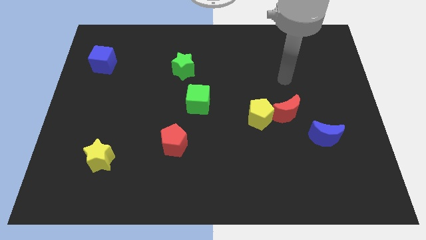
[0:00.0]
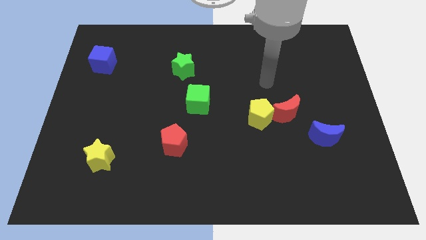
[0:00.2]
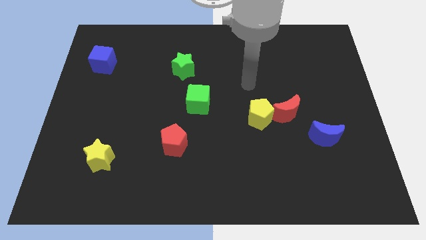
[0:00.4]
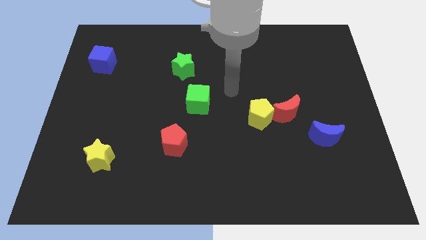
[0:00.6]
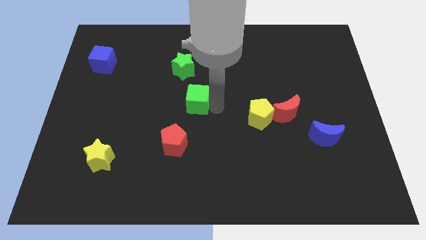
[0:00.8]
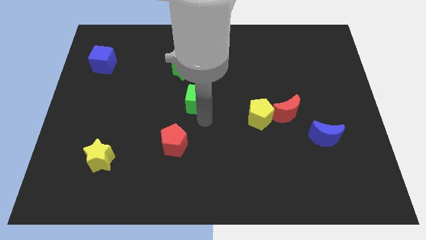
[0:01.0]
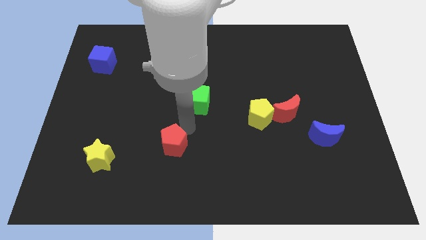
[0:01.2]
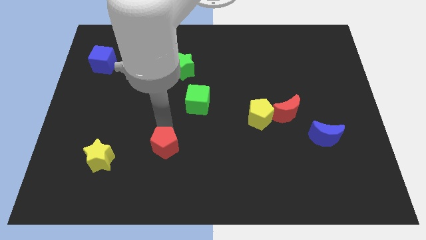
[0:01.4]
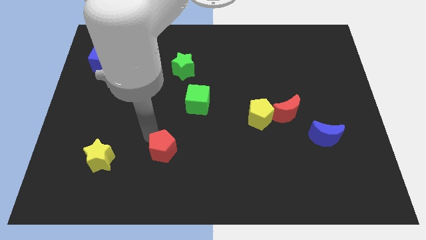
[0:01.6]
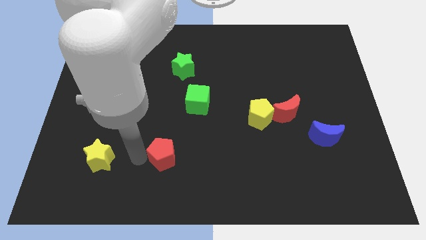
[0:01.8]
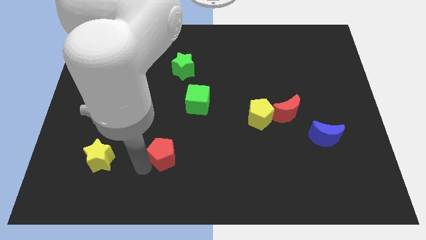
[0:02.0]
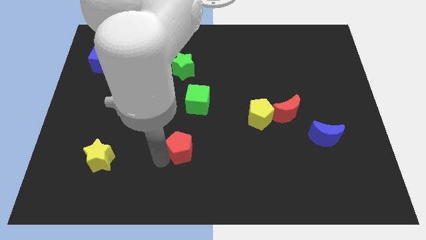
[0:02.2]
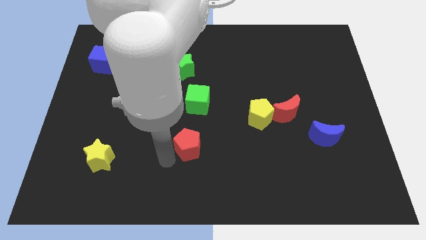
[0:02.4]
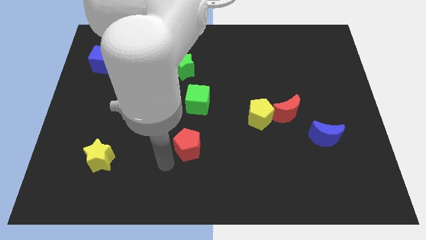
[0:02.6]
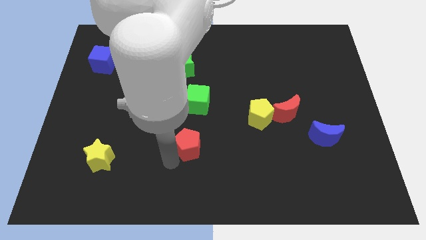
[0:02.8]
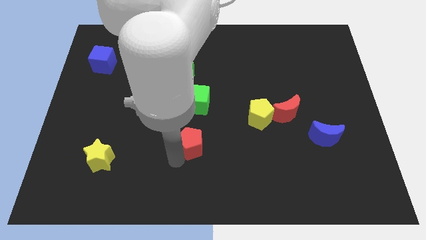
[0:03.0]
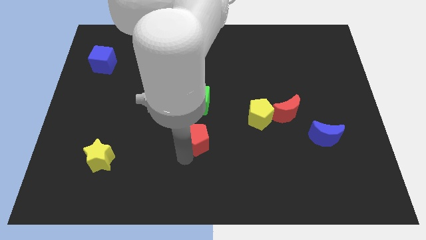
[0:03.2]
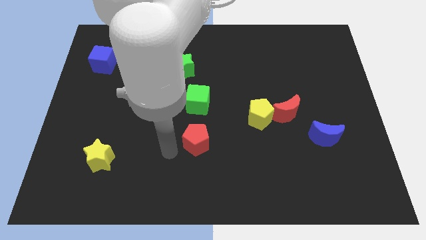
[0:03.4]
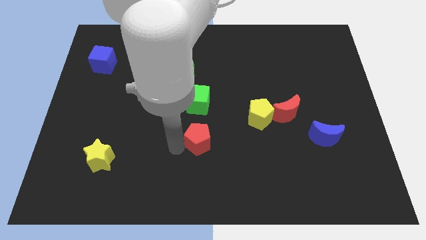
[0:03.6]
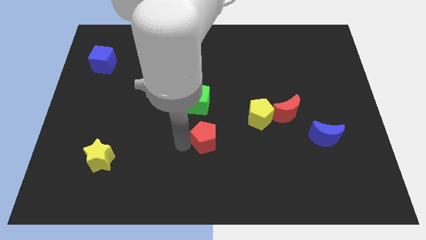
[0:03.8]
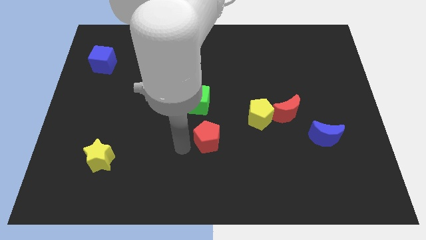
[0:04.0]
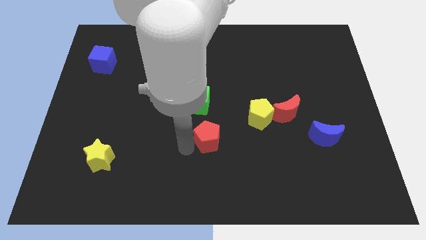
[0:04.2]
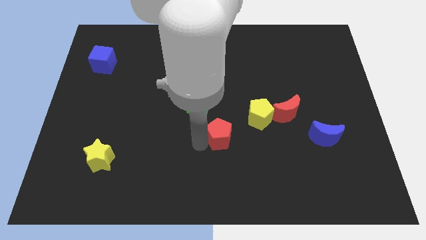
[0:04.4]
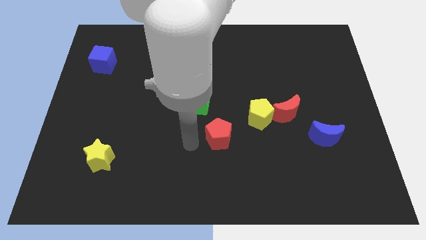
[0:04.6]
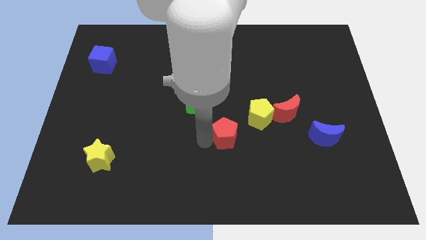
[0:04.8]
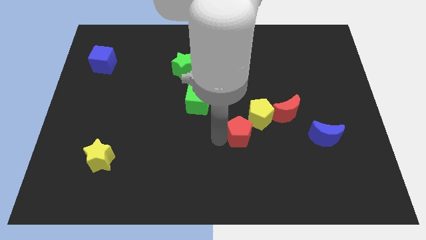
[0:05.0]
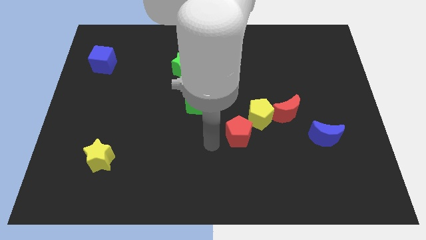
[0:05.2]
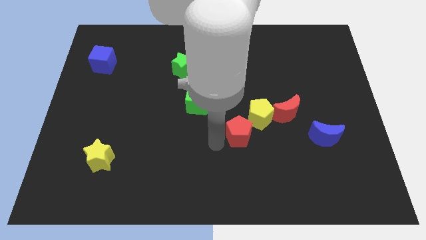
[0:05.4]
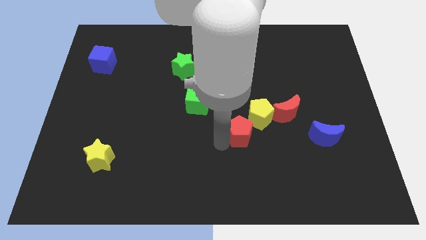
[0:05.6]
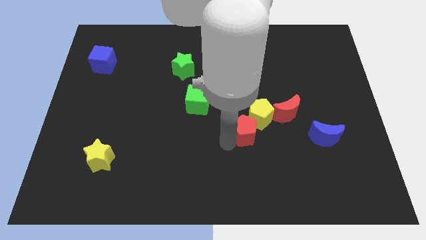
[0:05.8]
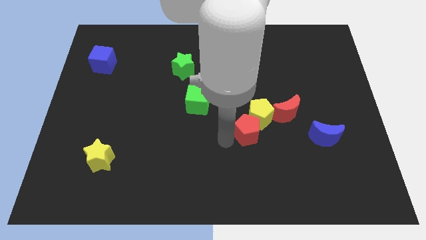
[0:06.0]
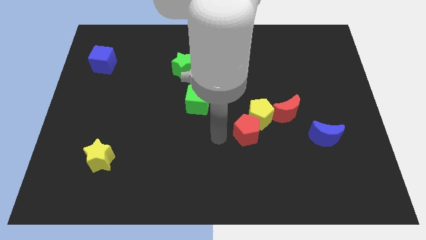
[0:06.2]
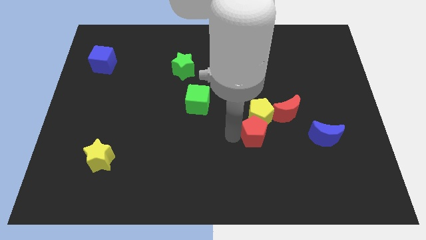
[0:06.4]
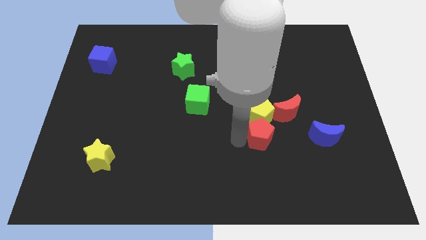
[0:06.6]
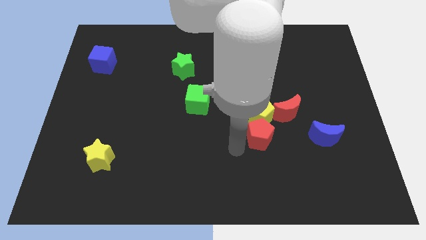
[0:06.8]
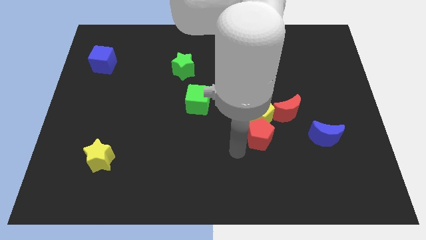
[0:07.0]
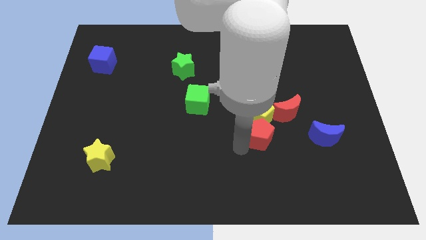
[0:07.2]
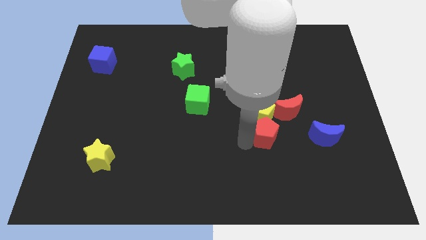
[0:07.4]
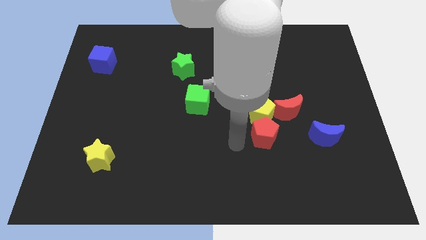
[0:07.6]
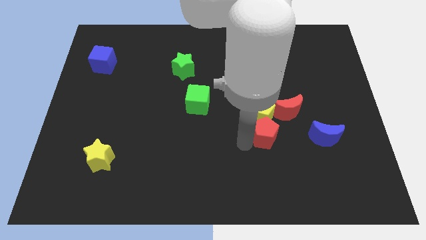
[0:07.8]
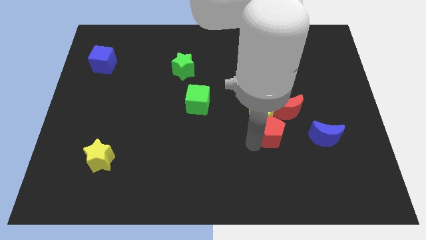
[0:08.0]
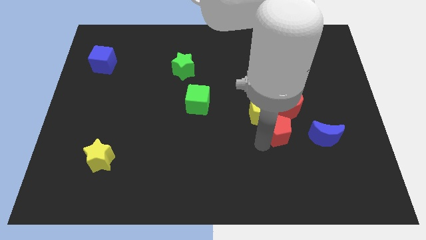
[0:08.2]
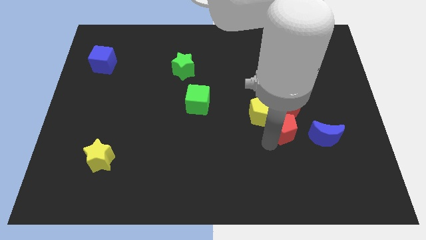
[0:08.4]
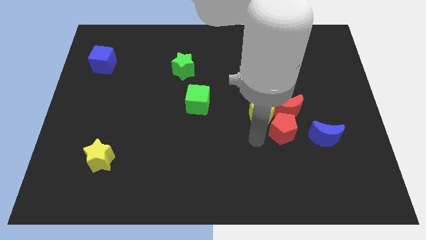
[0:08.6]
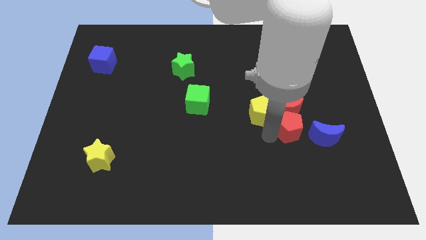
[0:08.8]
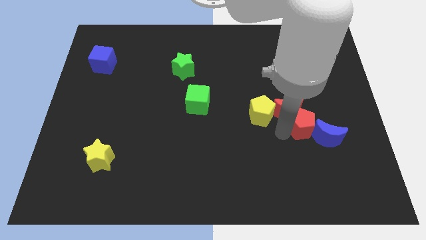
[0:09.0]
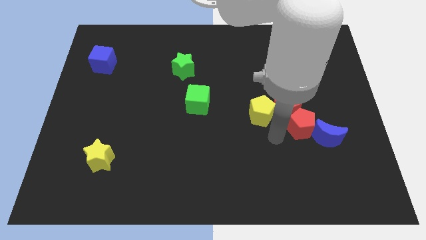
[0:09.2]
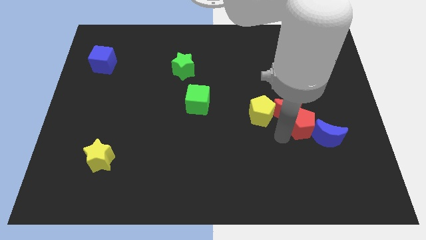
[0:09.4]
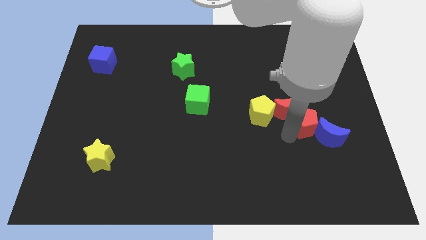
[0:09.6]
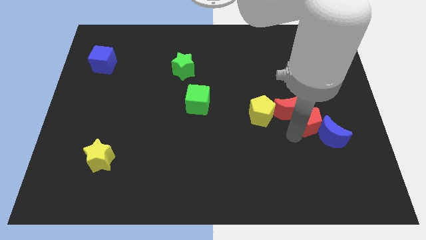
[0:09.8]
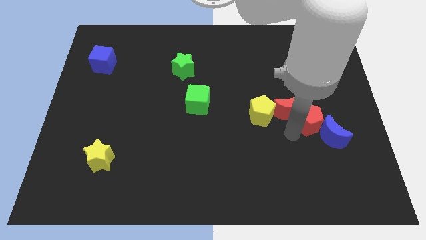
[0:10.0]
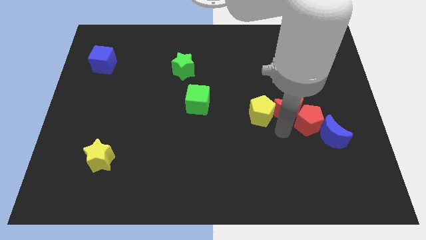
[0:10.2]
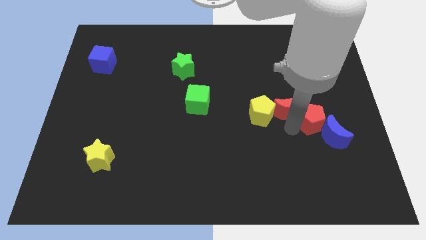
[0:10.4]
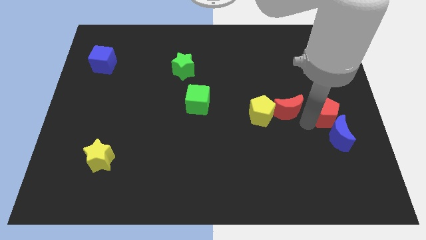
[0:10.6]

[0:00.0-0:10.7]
push the red pentagon to the center right

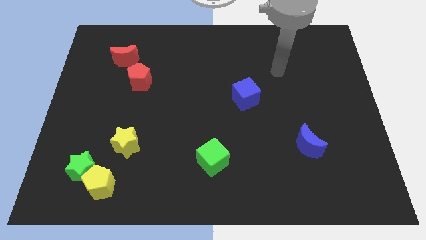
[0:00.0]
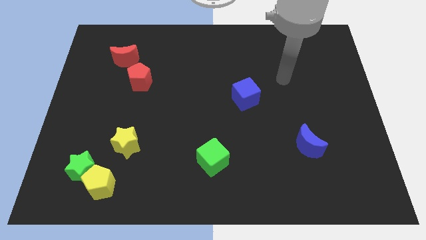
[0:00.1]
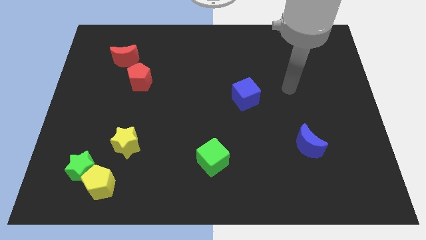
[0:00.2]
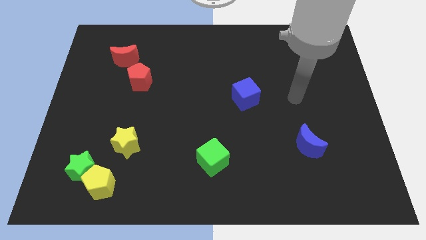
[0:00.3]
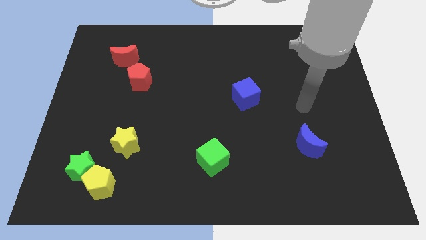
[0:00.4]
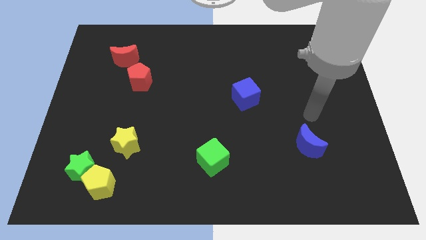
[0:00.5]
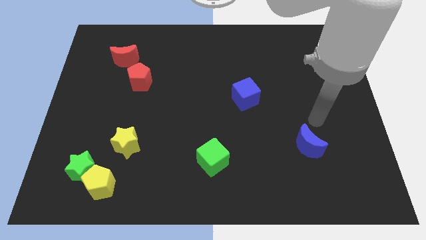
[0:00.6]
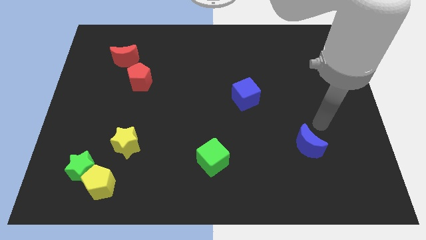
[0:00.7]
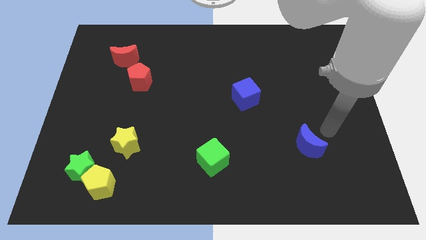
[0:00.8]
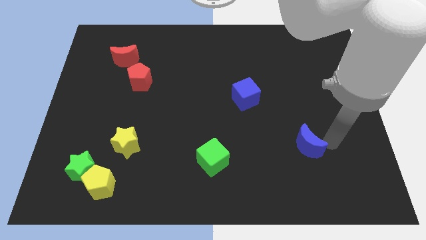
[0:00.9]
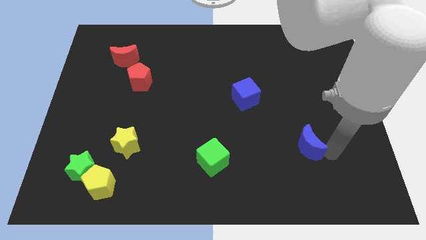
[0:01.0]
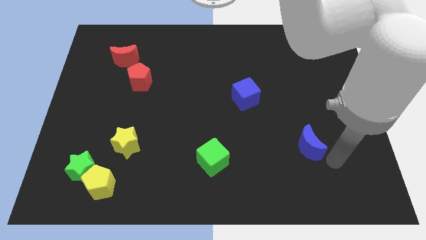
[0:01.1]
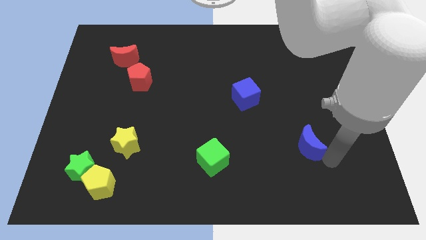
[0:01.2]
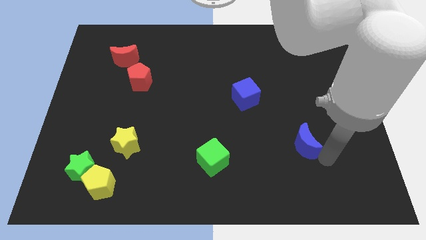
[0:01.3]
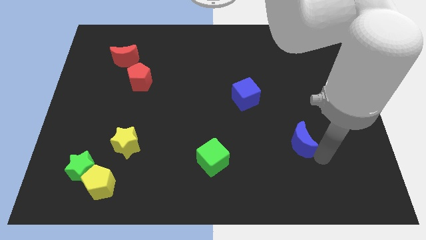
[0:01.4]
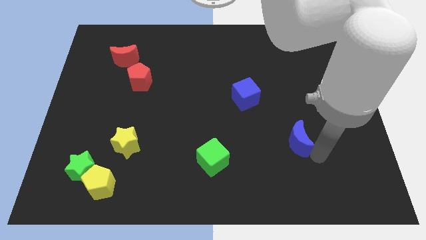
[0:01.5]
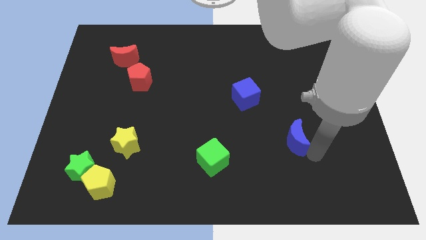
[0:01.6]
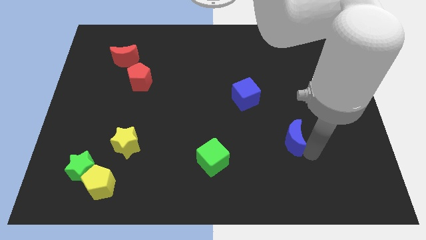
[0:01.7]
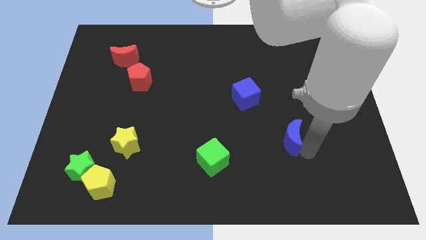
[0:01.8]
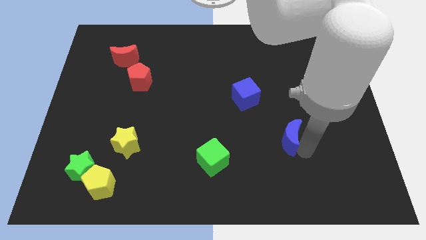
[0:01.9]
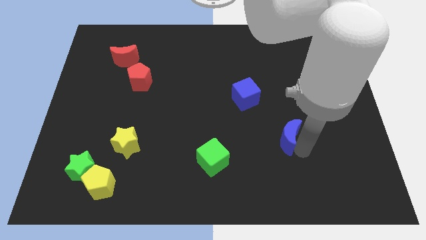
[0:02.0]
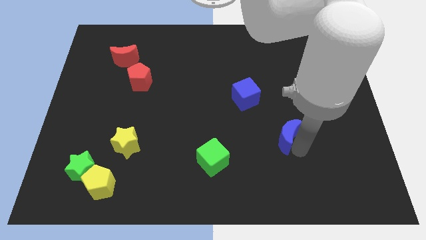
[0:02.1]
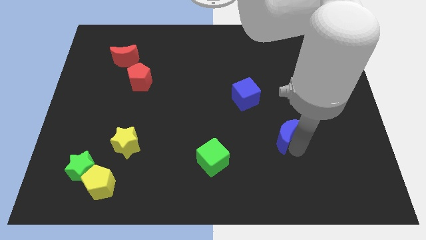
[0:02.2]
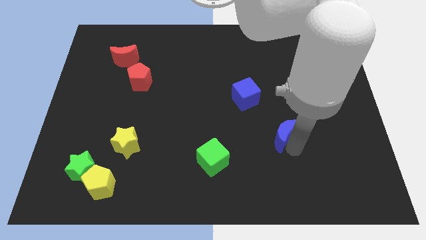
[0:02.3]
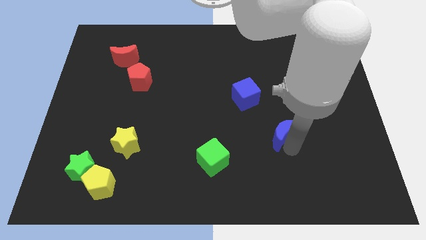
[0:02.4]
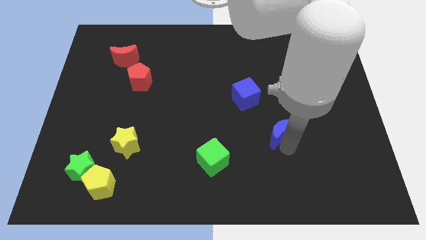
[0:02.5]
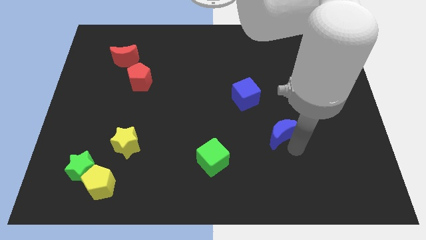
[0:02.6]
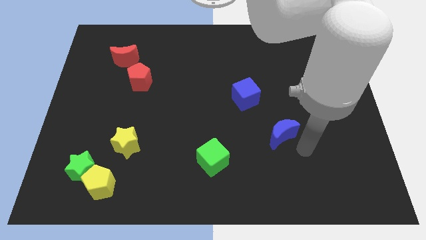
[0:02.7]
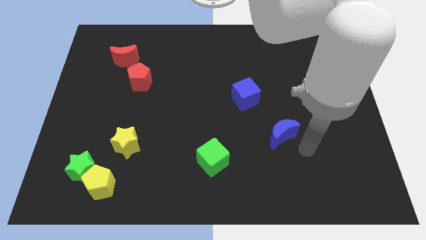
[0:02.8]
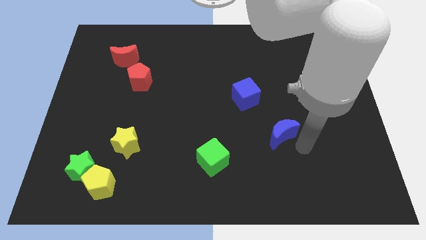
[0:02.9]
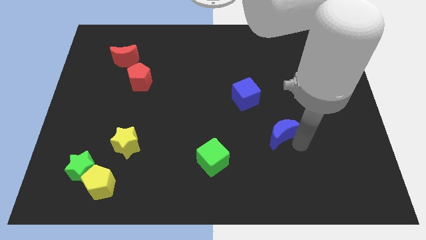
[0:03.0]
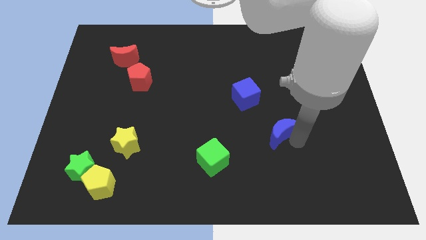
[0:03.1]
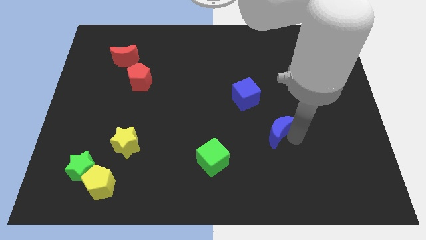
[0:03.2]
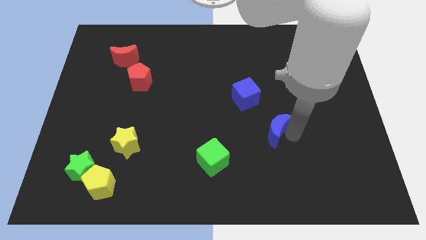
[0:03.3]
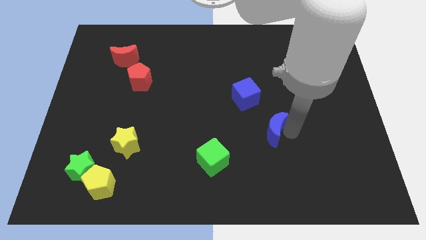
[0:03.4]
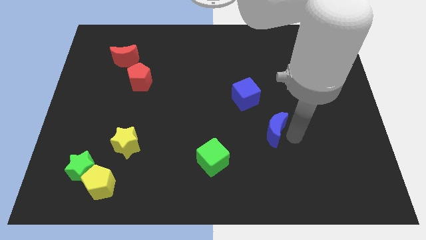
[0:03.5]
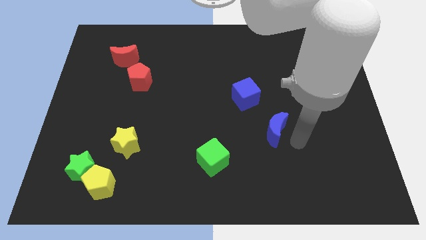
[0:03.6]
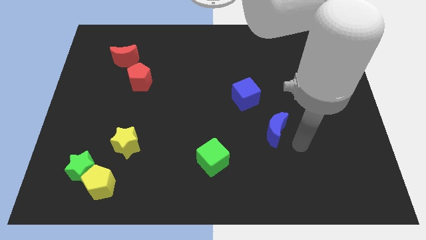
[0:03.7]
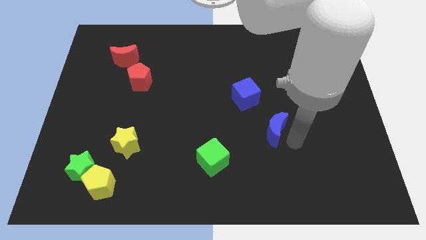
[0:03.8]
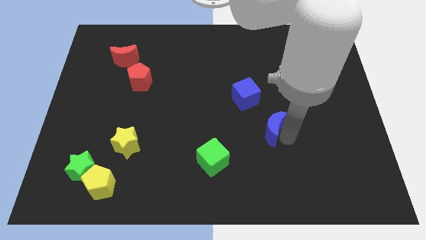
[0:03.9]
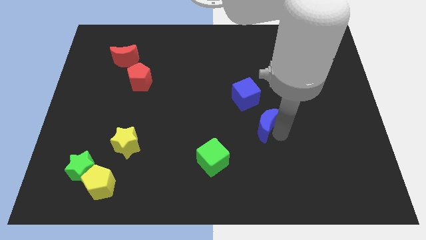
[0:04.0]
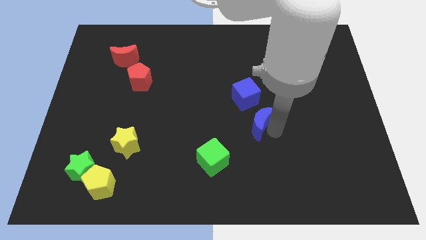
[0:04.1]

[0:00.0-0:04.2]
push the blue moon to the middle of the board
